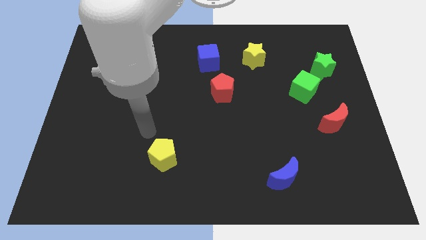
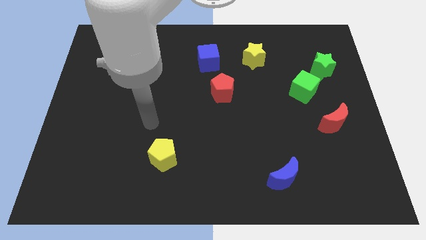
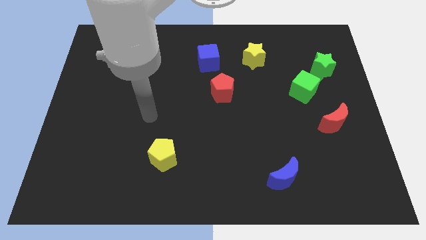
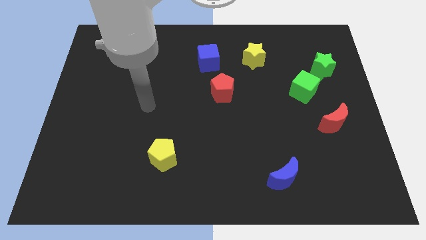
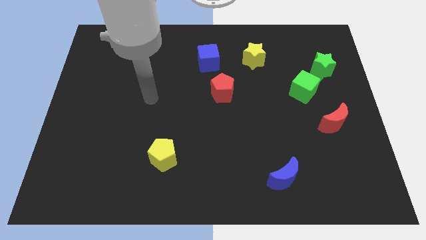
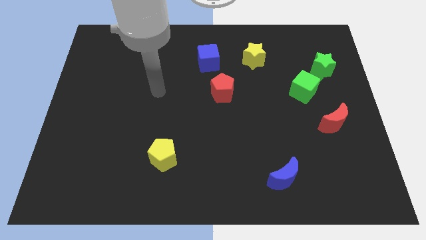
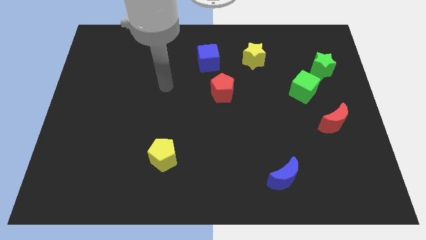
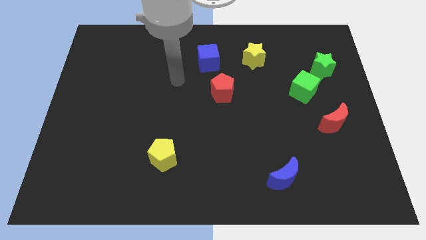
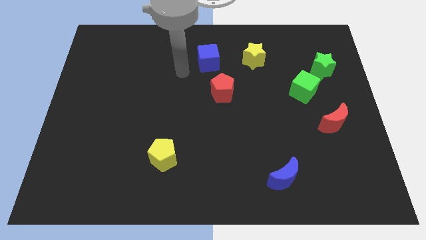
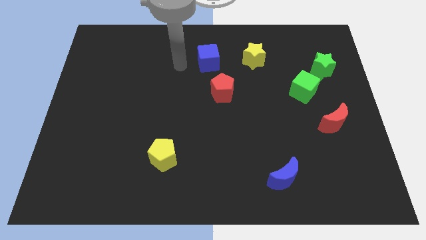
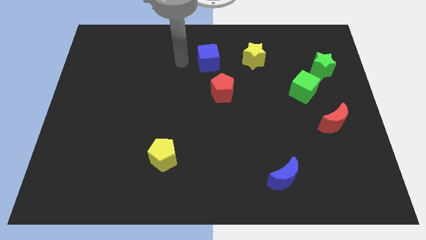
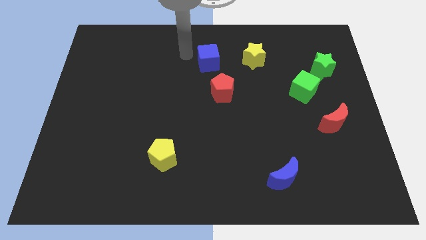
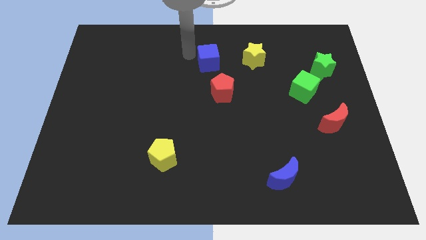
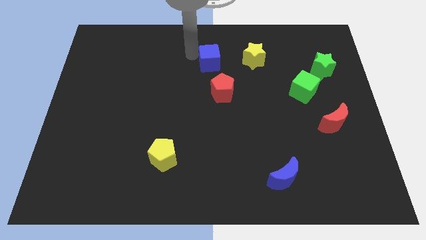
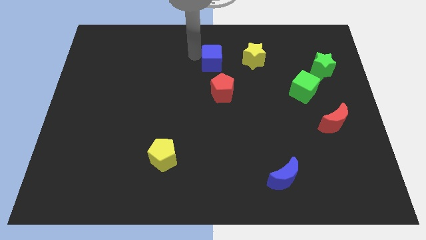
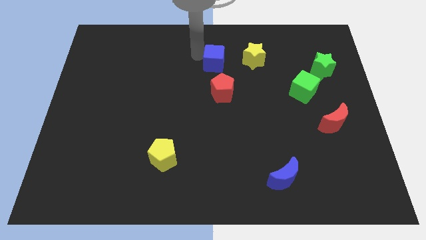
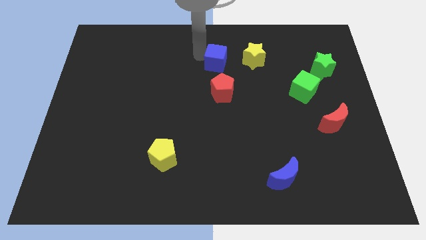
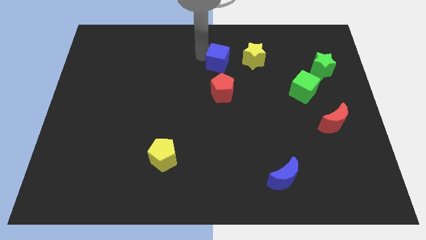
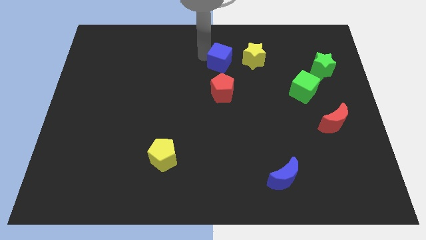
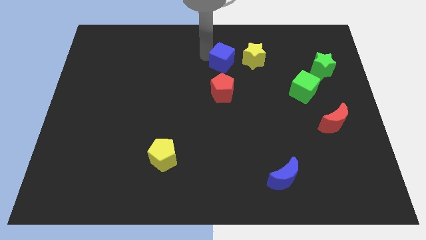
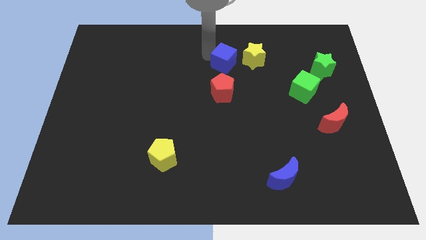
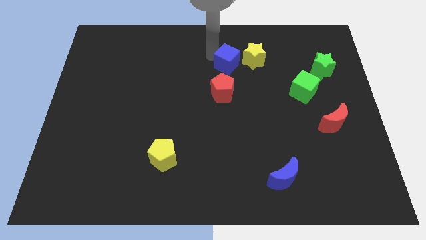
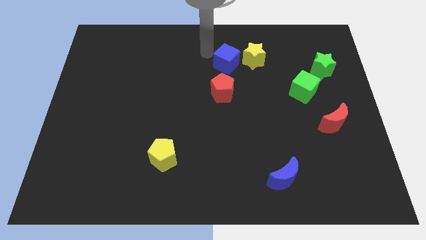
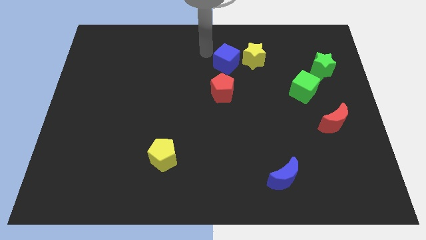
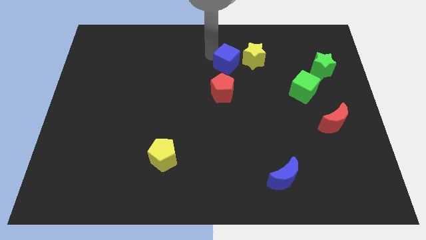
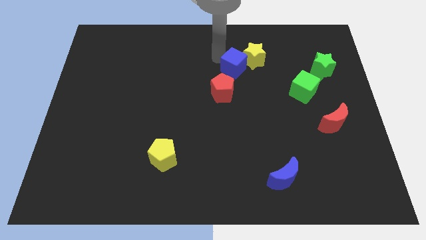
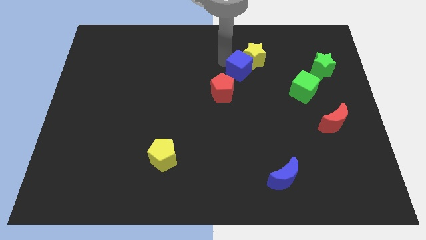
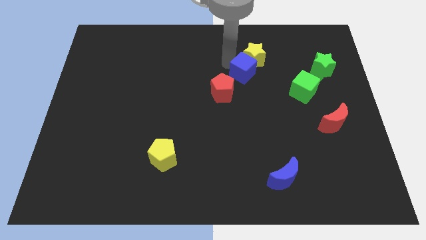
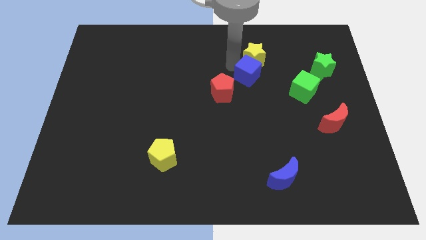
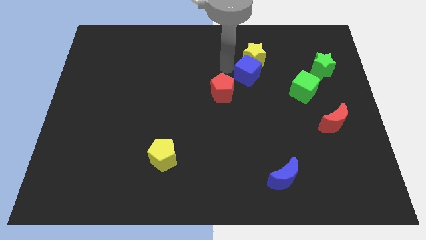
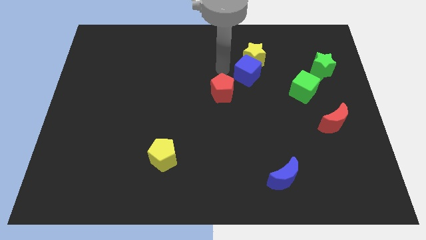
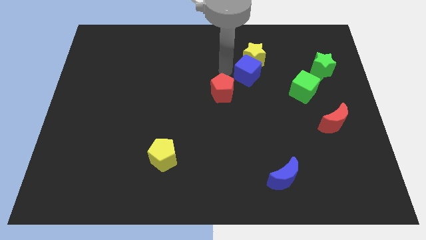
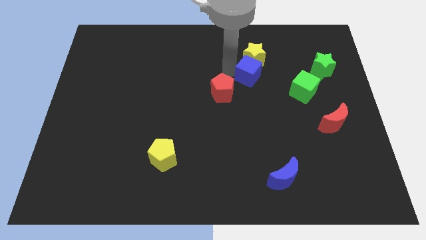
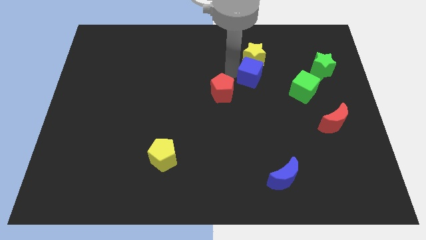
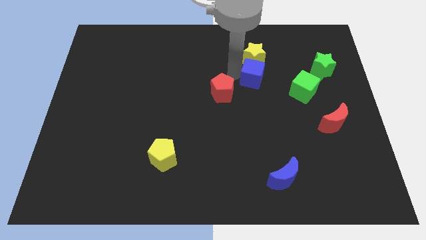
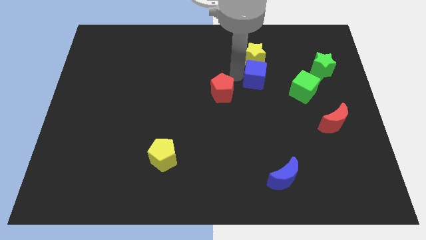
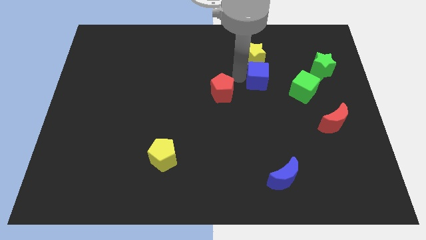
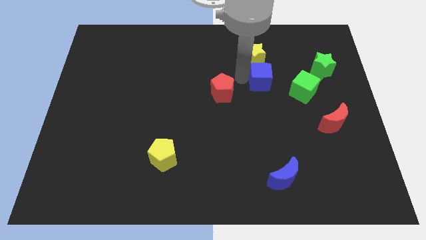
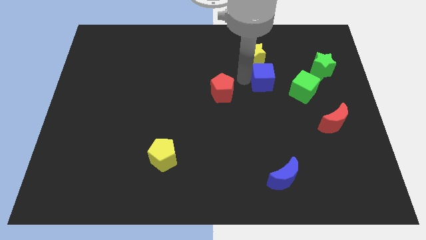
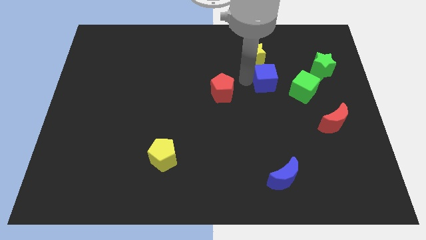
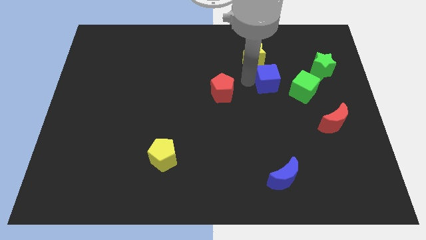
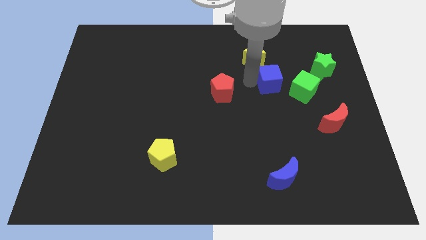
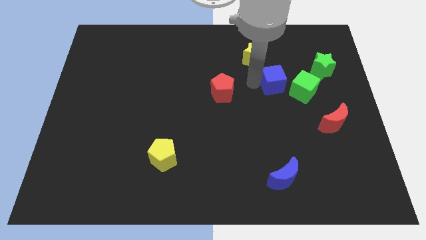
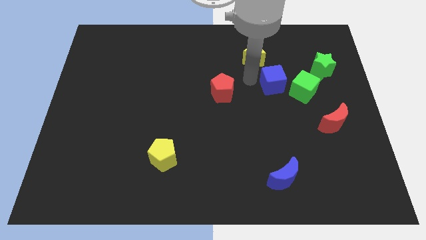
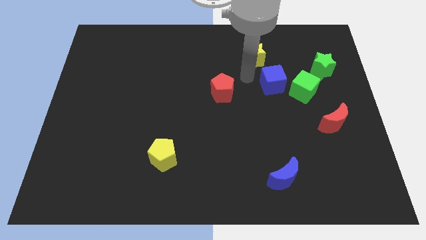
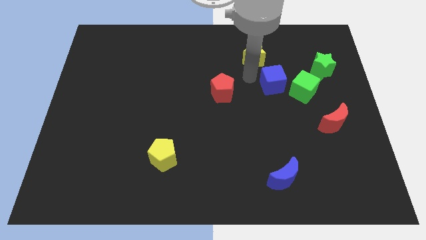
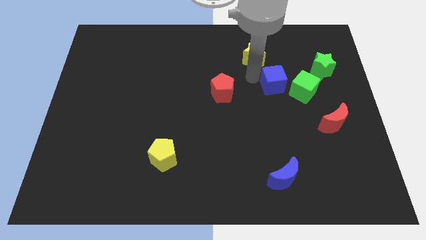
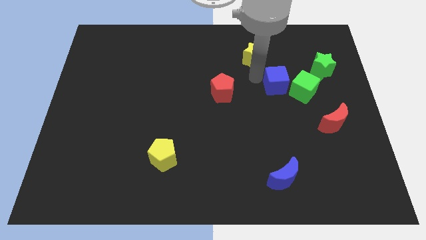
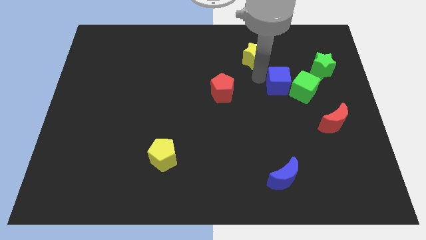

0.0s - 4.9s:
move the blue cube close to the green cube

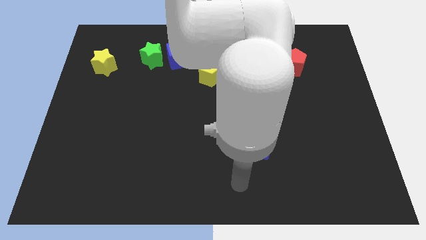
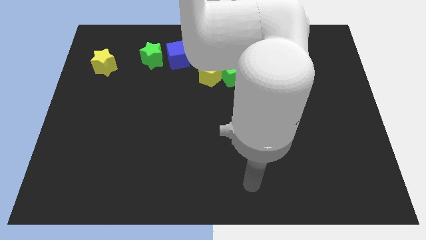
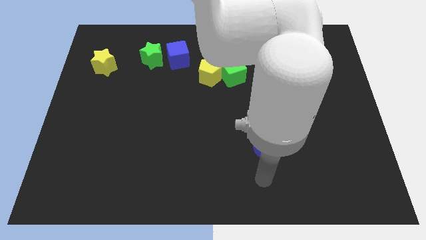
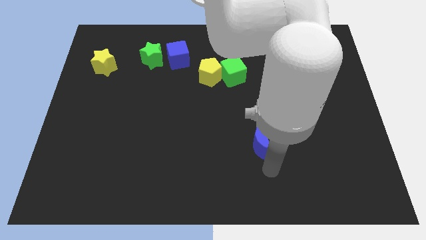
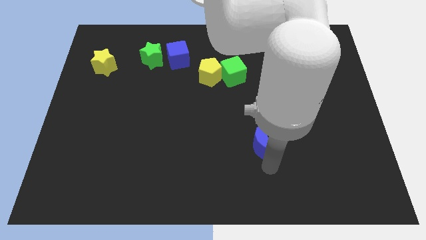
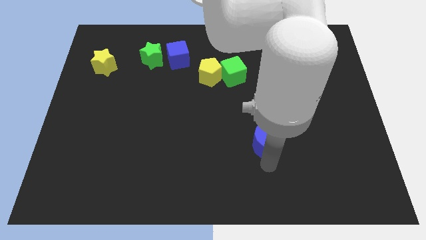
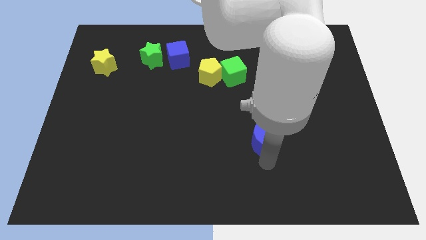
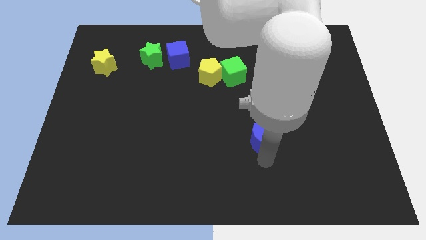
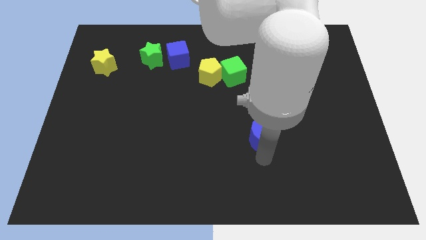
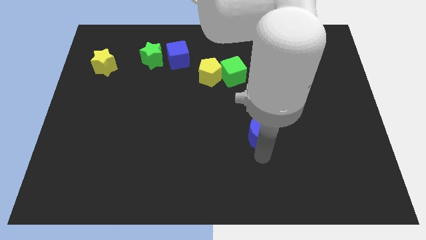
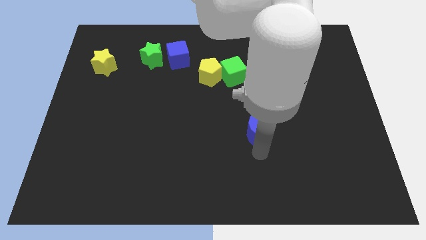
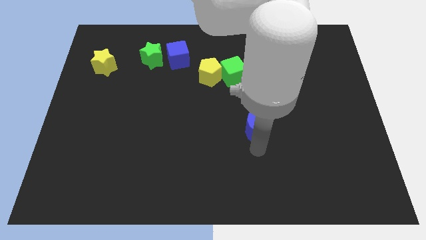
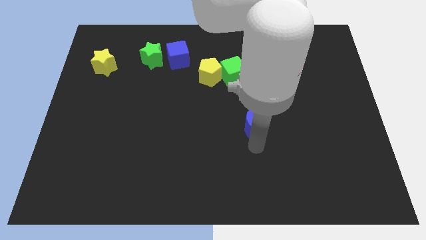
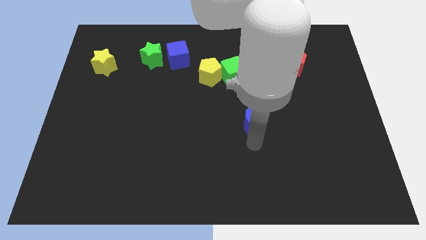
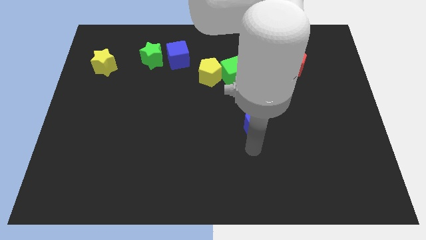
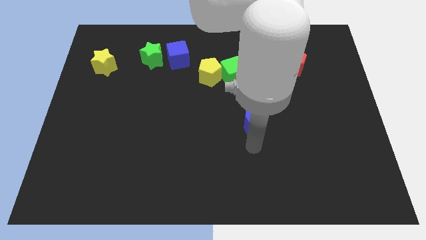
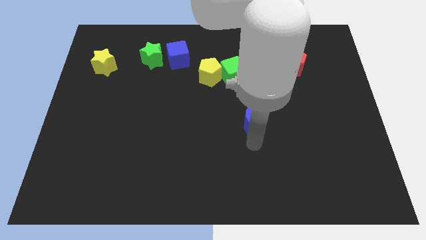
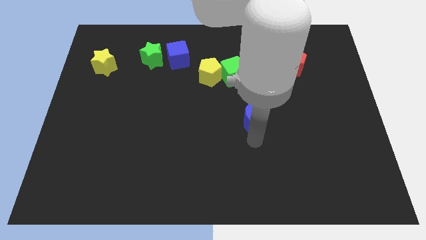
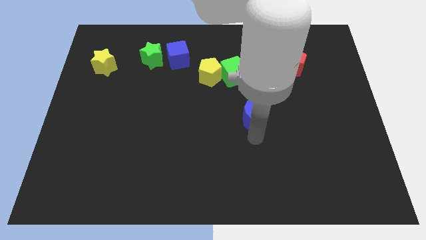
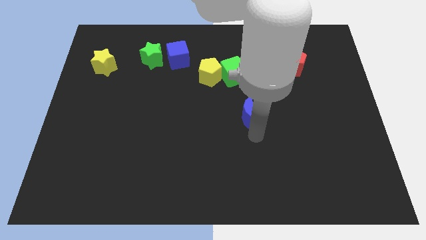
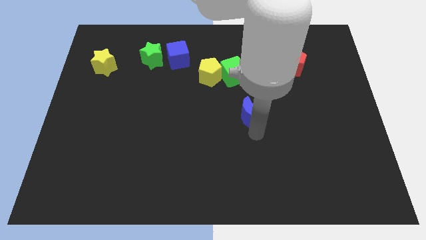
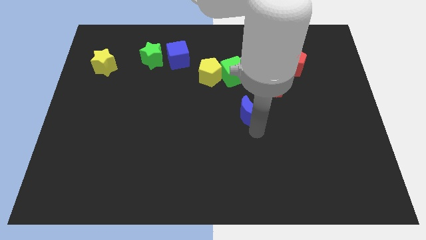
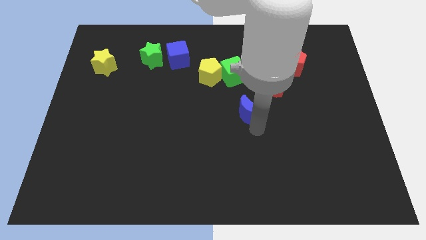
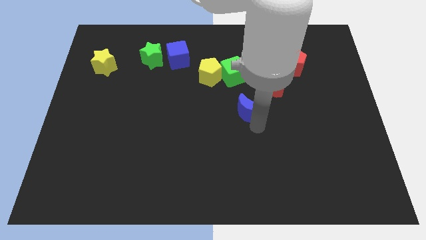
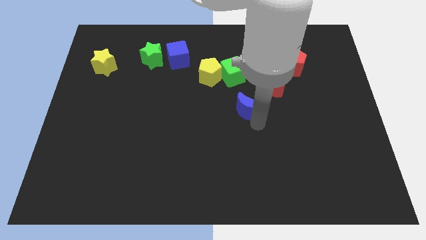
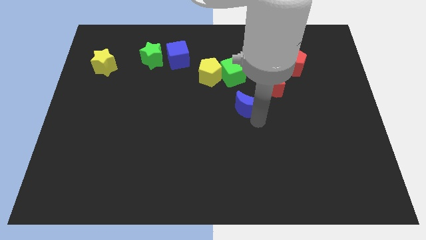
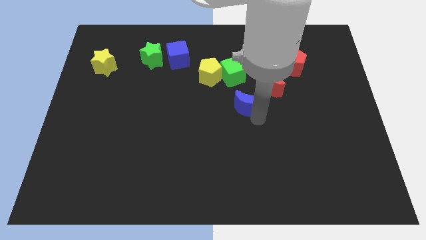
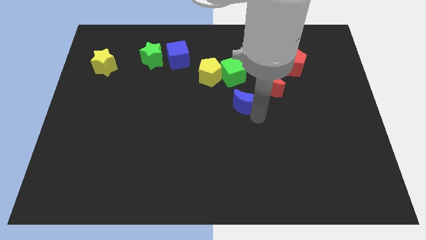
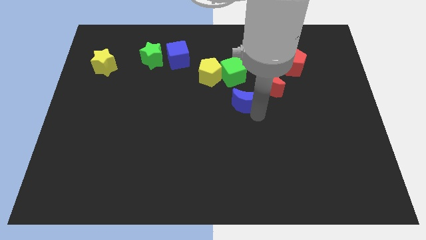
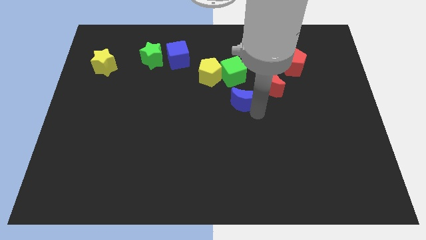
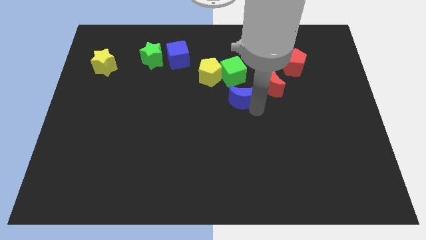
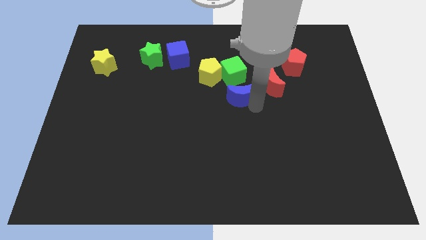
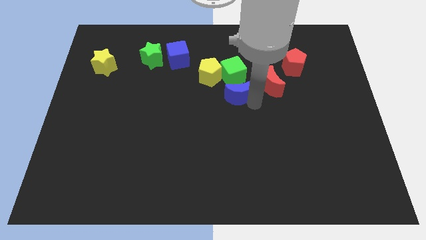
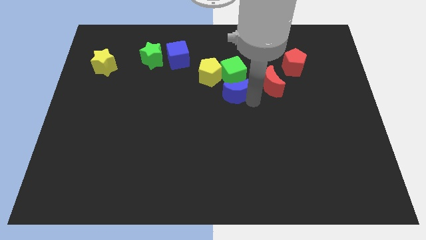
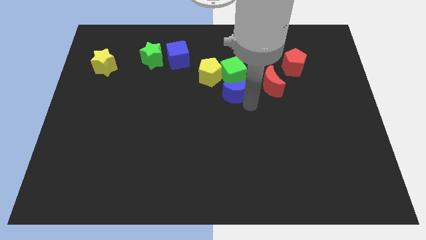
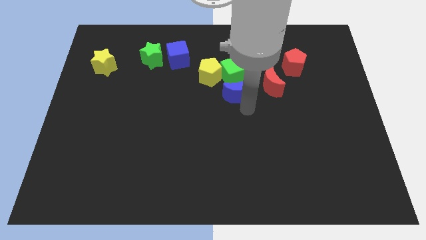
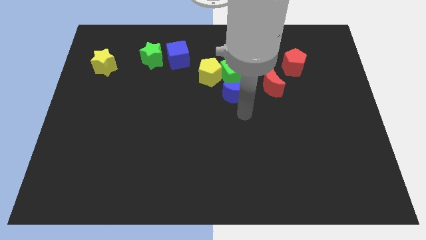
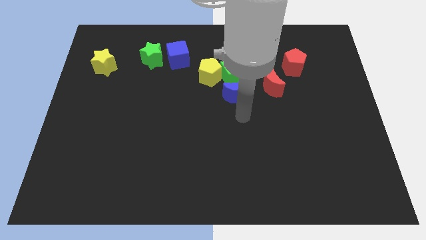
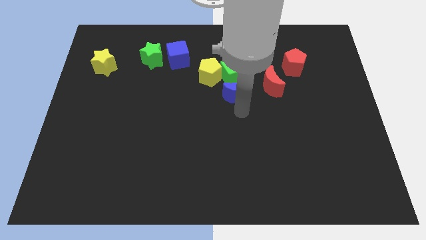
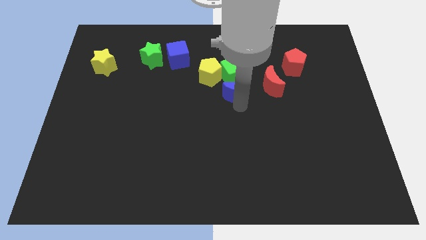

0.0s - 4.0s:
push the blue moon to the green cube
